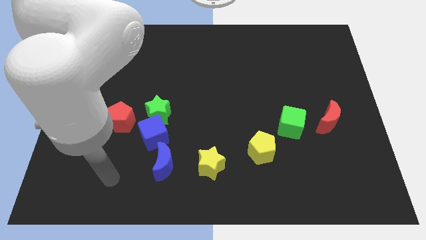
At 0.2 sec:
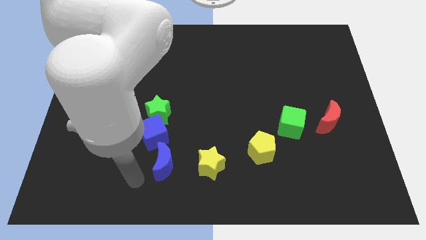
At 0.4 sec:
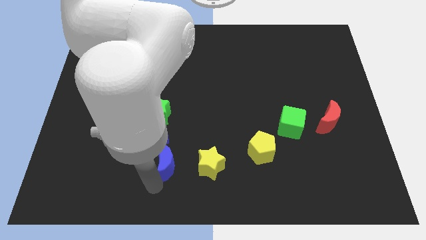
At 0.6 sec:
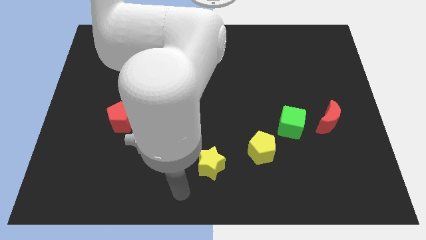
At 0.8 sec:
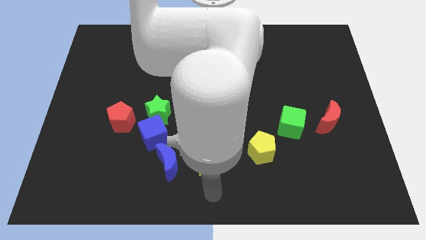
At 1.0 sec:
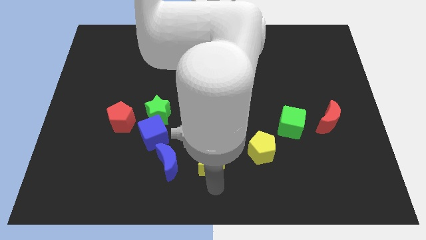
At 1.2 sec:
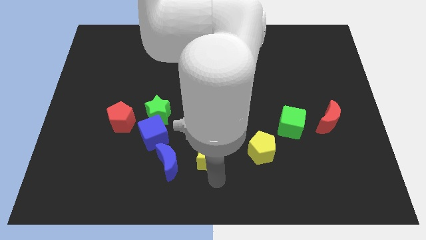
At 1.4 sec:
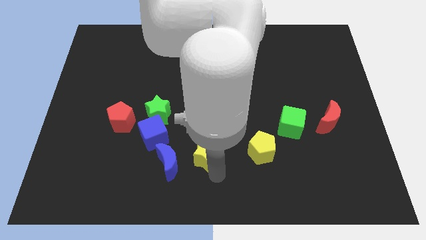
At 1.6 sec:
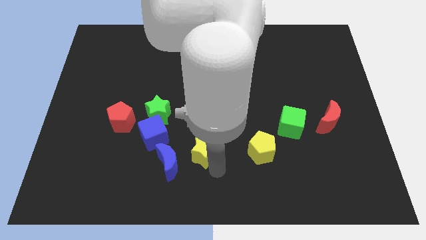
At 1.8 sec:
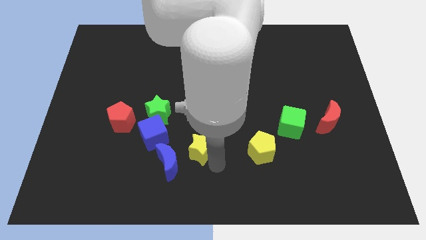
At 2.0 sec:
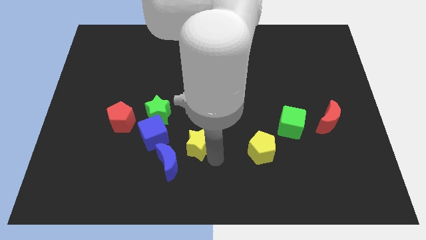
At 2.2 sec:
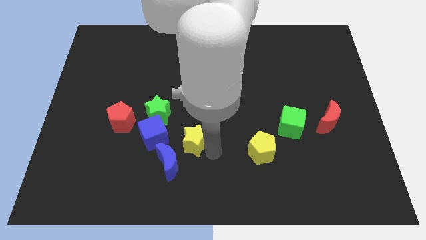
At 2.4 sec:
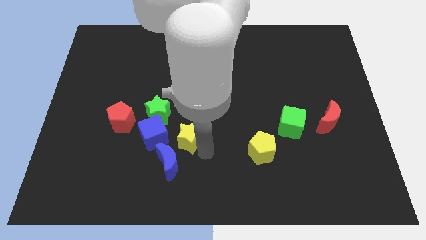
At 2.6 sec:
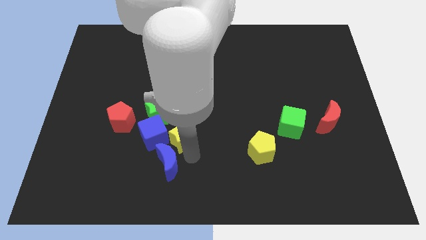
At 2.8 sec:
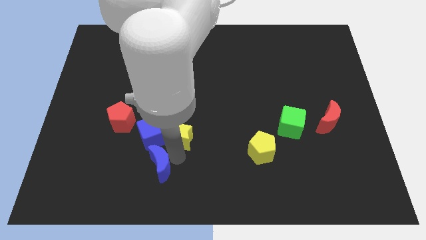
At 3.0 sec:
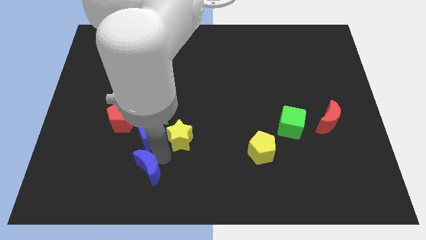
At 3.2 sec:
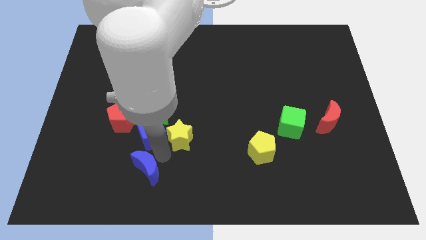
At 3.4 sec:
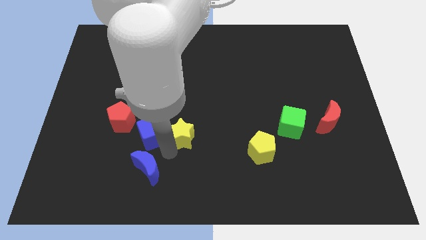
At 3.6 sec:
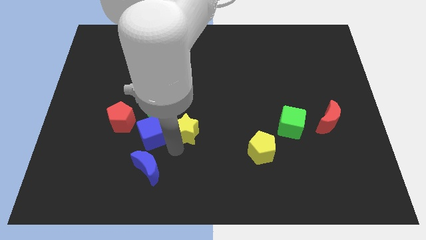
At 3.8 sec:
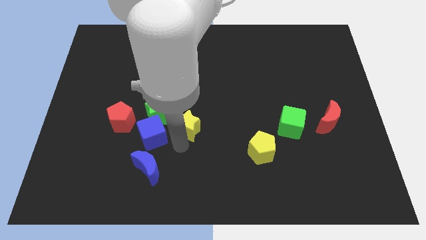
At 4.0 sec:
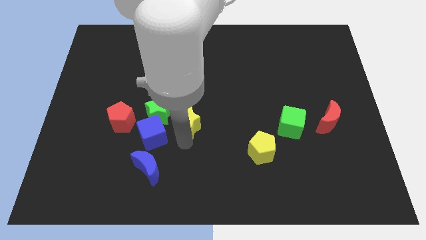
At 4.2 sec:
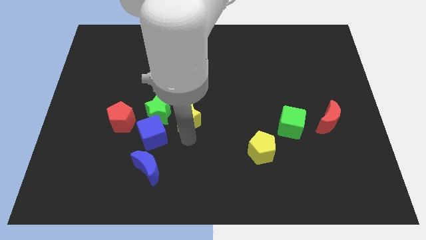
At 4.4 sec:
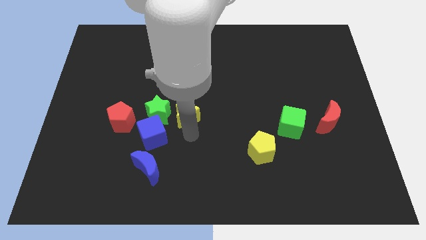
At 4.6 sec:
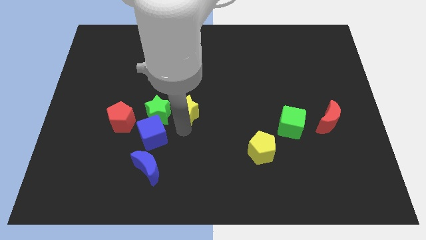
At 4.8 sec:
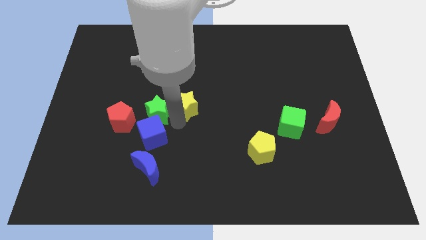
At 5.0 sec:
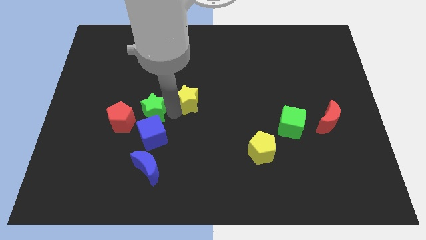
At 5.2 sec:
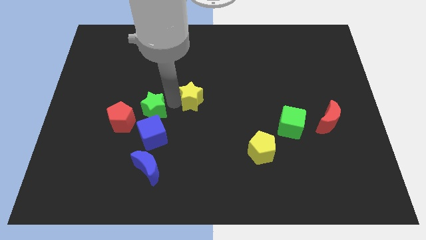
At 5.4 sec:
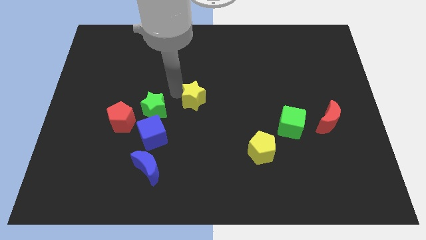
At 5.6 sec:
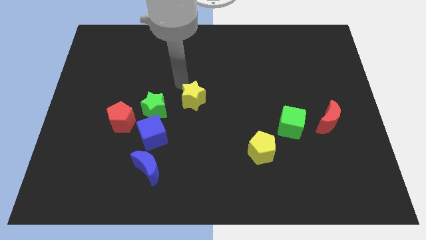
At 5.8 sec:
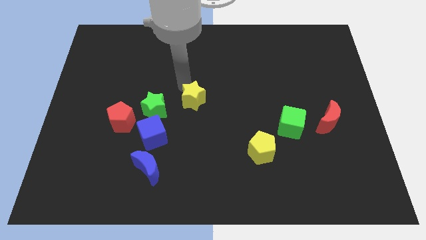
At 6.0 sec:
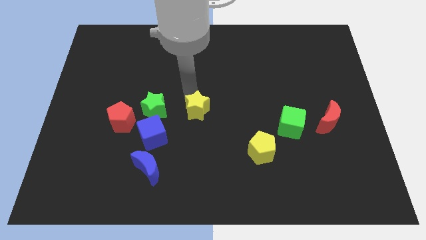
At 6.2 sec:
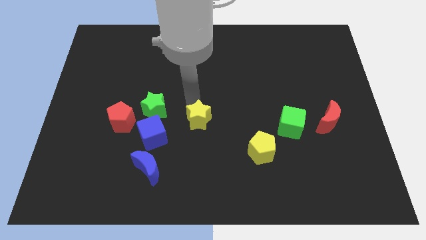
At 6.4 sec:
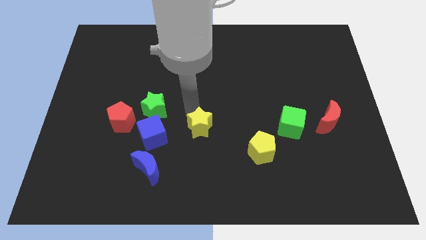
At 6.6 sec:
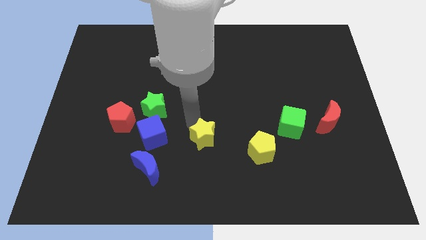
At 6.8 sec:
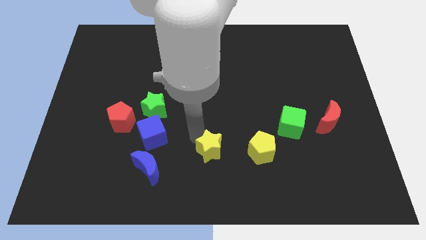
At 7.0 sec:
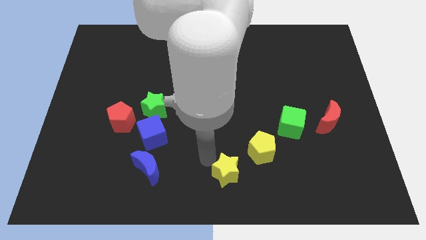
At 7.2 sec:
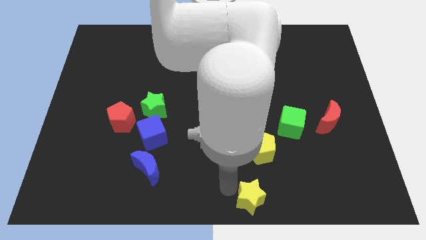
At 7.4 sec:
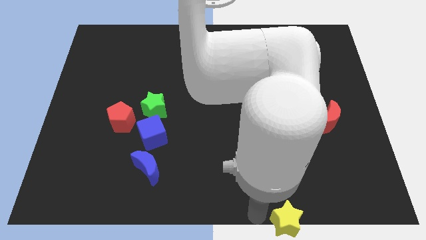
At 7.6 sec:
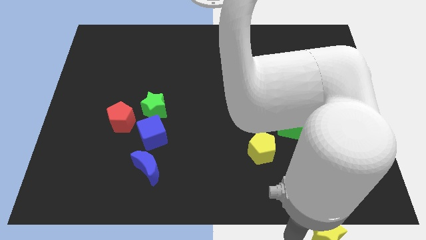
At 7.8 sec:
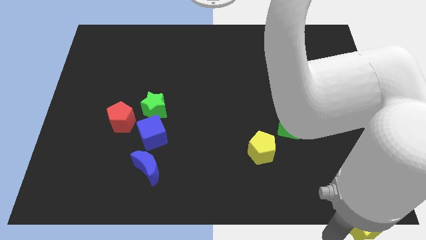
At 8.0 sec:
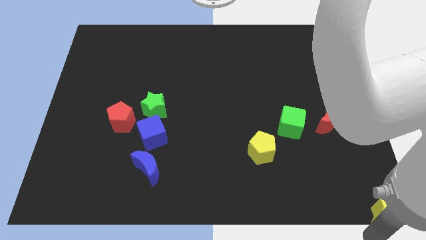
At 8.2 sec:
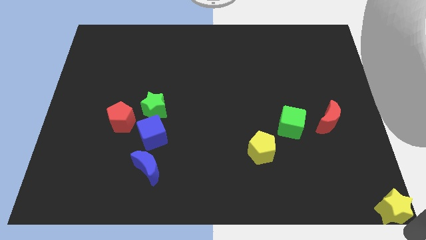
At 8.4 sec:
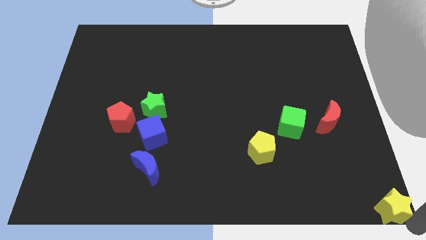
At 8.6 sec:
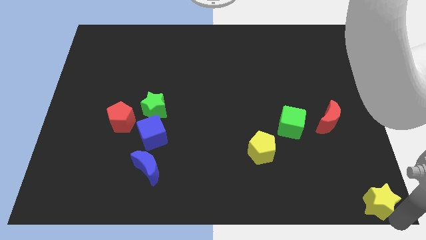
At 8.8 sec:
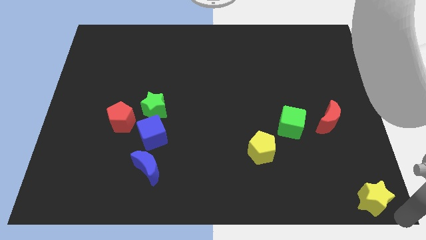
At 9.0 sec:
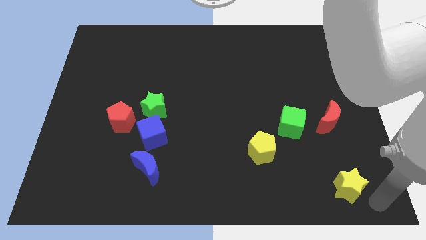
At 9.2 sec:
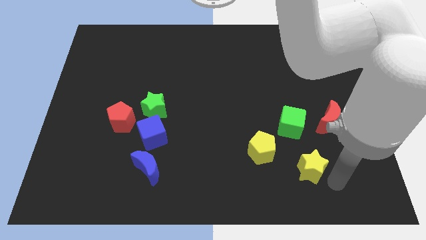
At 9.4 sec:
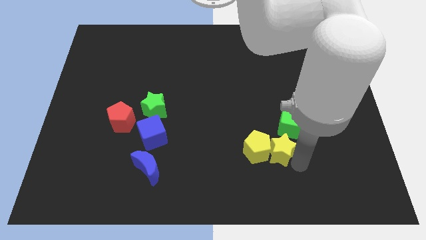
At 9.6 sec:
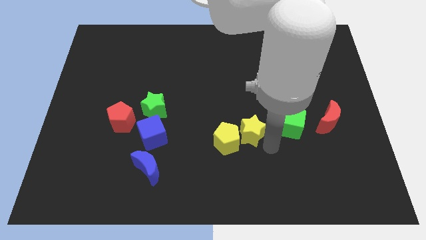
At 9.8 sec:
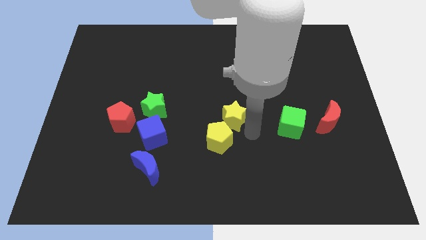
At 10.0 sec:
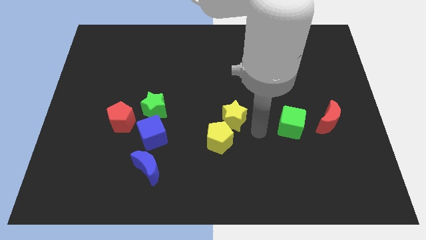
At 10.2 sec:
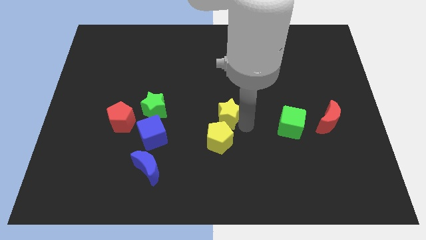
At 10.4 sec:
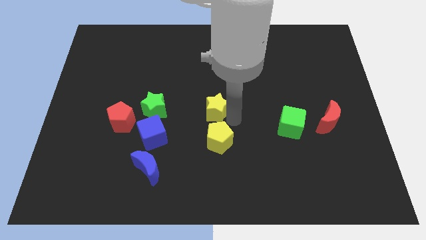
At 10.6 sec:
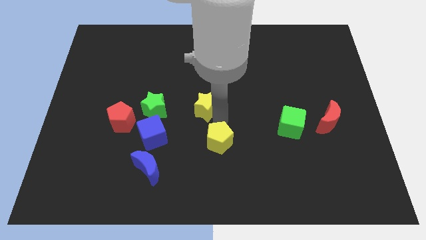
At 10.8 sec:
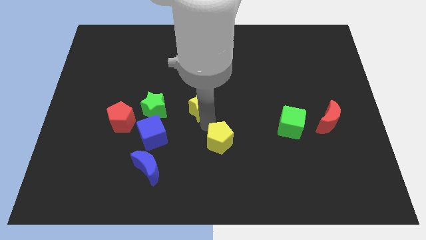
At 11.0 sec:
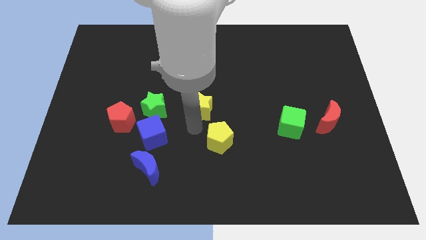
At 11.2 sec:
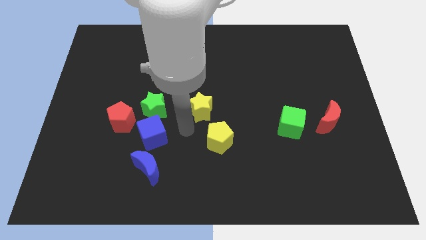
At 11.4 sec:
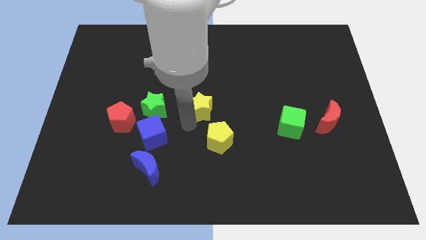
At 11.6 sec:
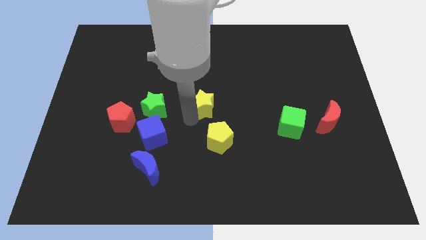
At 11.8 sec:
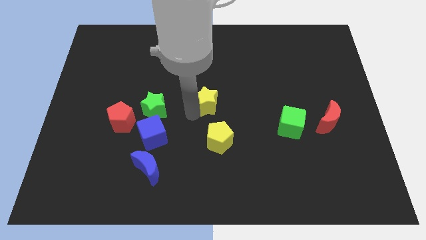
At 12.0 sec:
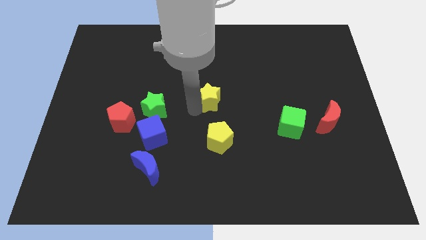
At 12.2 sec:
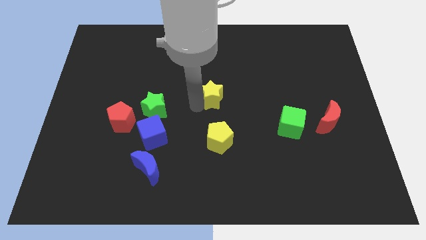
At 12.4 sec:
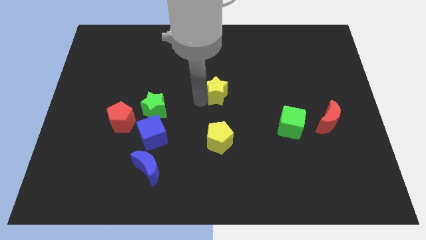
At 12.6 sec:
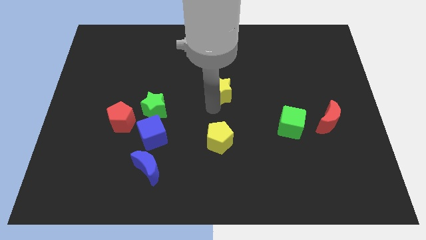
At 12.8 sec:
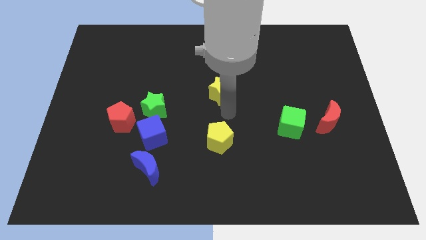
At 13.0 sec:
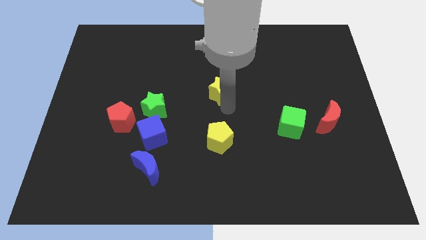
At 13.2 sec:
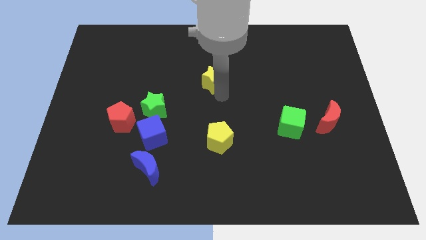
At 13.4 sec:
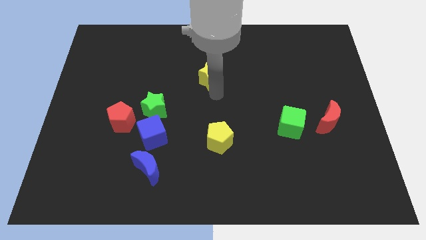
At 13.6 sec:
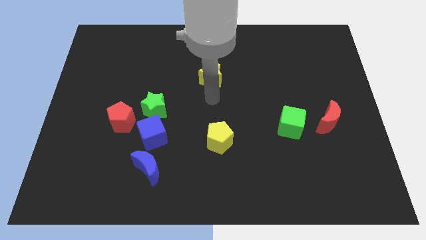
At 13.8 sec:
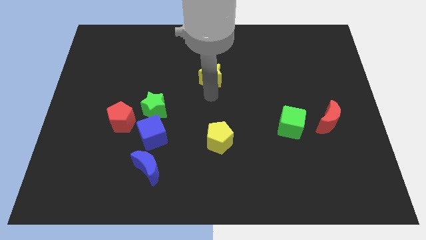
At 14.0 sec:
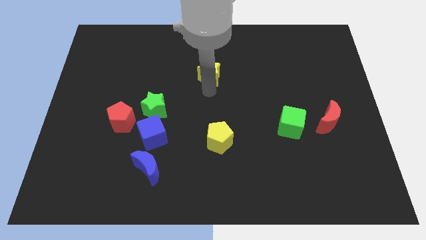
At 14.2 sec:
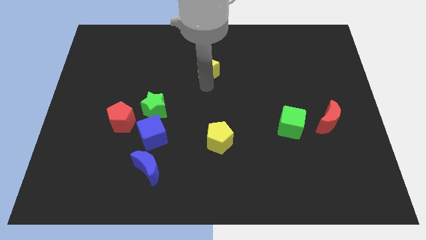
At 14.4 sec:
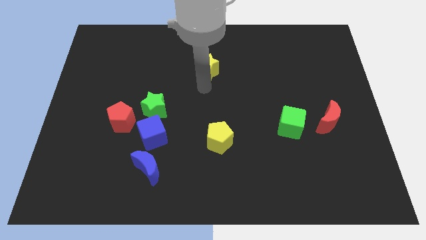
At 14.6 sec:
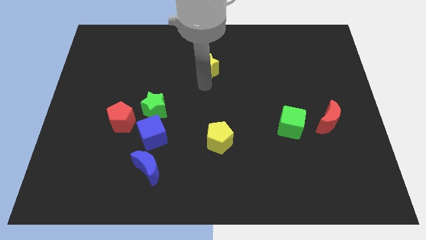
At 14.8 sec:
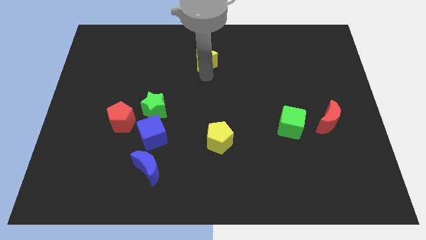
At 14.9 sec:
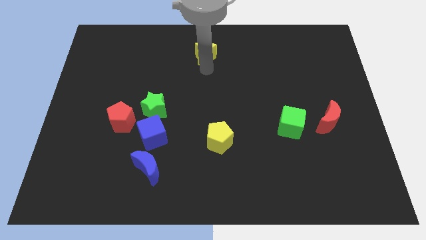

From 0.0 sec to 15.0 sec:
slide the yellow star to the towards your base
